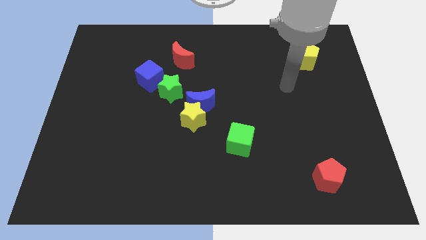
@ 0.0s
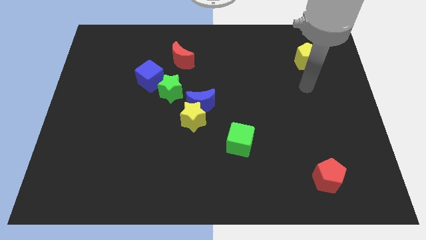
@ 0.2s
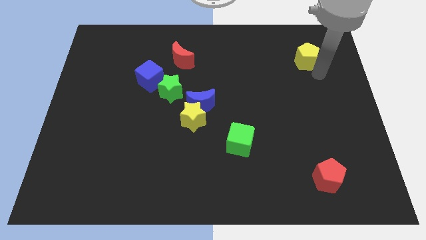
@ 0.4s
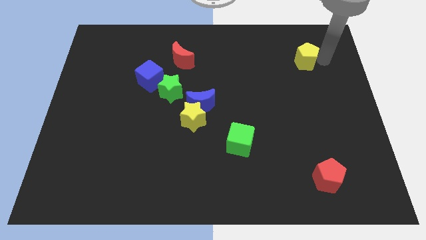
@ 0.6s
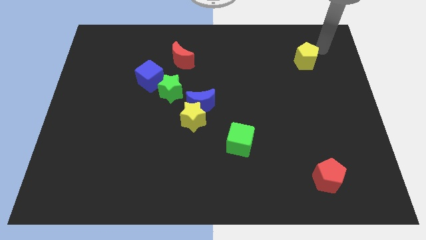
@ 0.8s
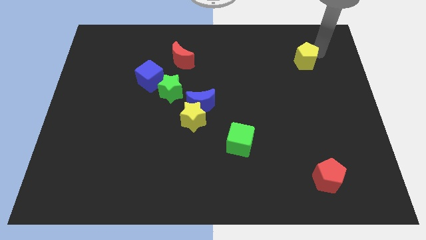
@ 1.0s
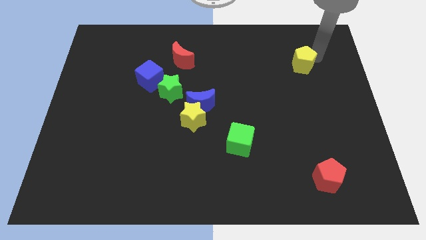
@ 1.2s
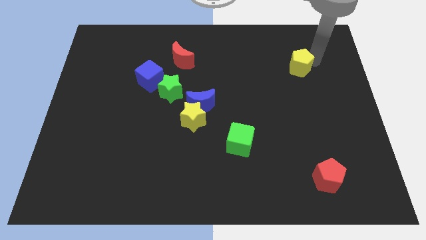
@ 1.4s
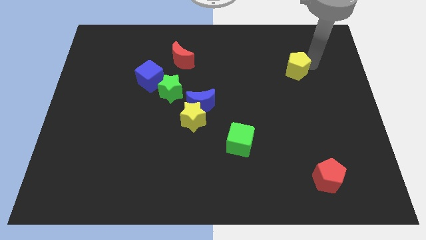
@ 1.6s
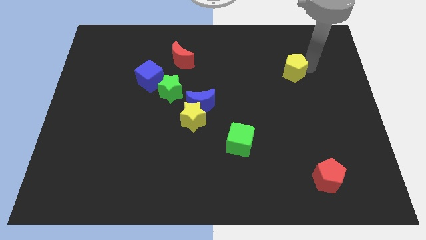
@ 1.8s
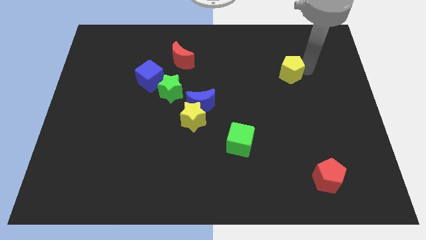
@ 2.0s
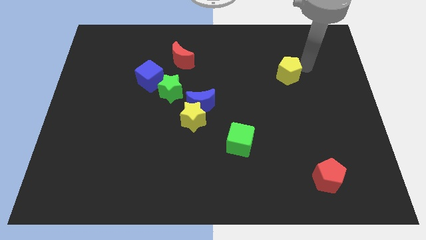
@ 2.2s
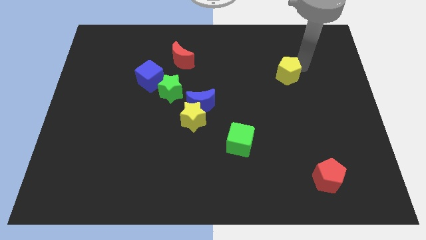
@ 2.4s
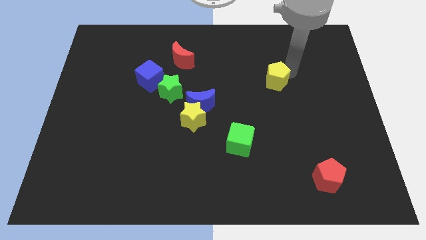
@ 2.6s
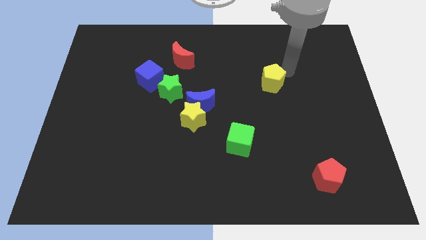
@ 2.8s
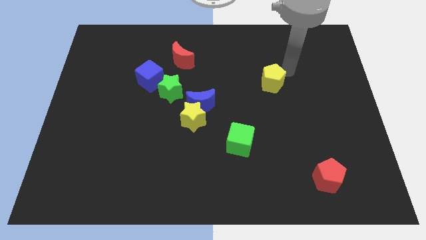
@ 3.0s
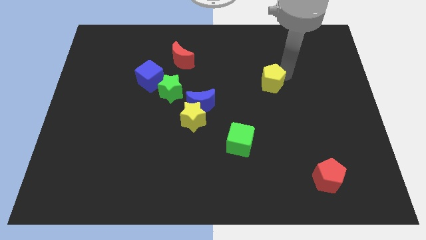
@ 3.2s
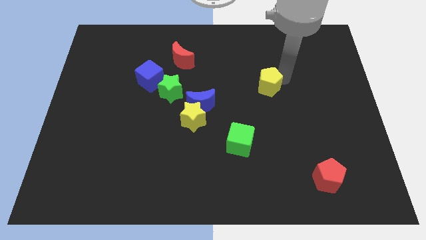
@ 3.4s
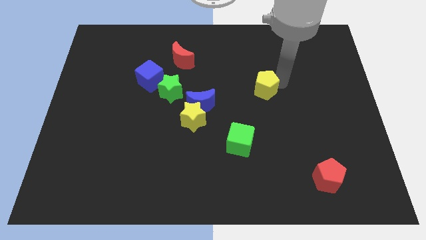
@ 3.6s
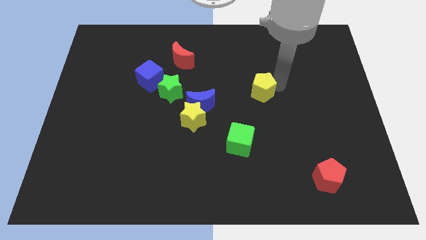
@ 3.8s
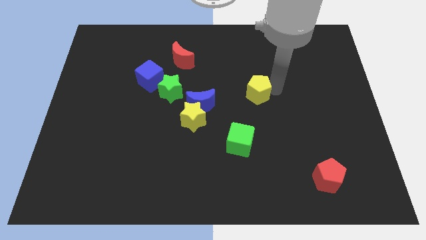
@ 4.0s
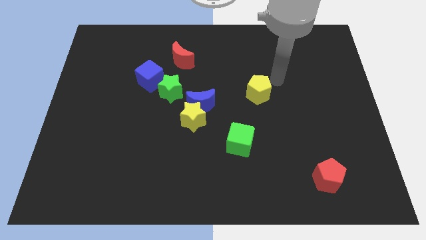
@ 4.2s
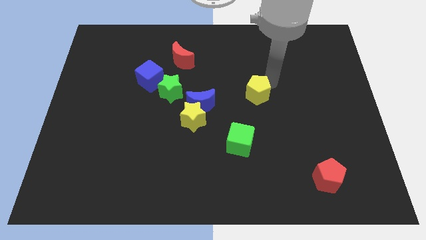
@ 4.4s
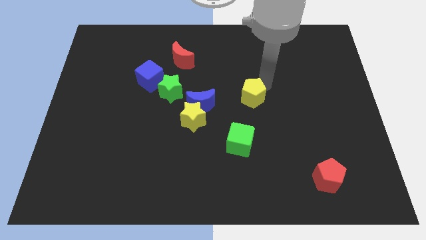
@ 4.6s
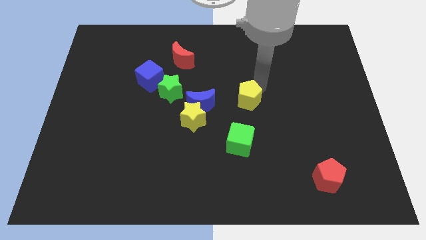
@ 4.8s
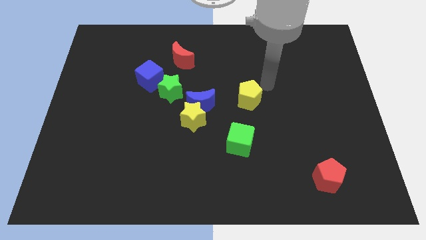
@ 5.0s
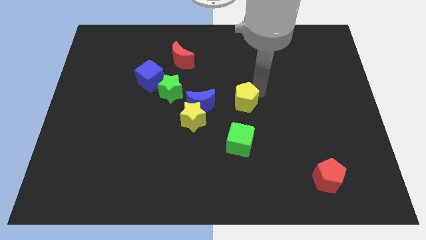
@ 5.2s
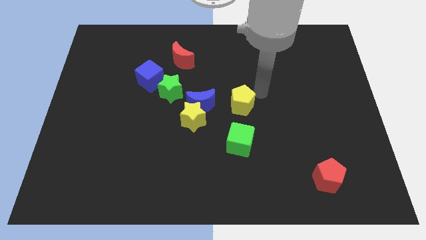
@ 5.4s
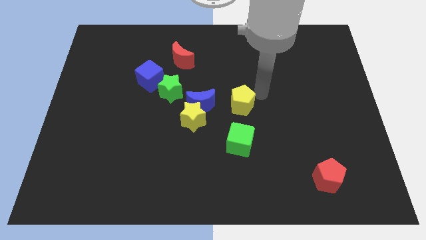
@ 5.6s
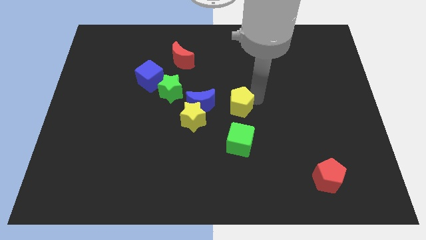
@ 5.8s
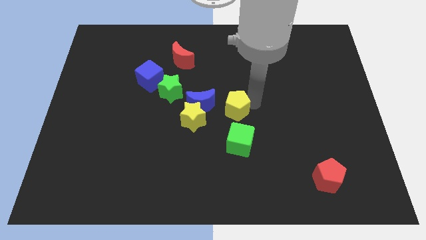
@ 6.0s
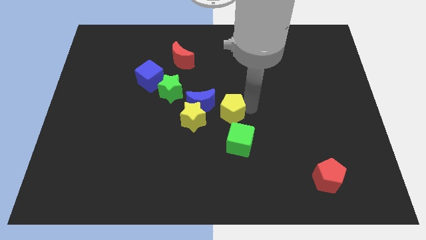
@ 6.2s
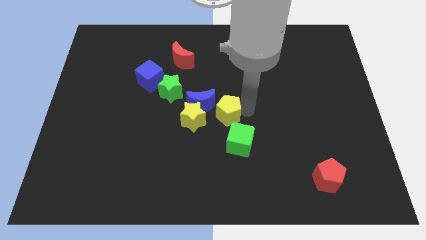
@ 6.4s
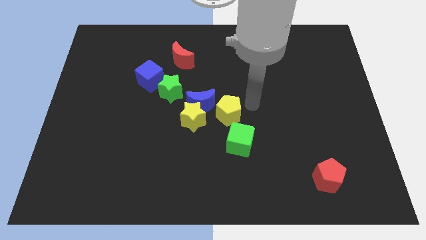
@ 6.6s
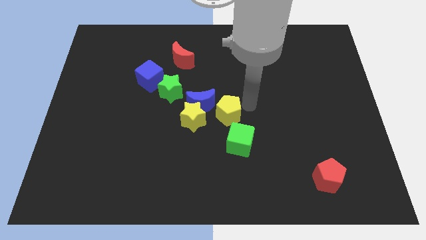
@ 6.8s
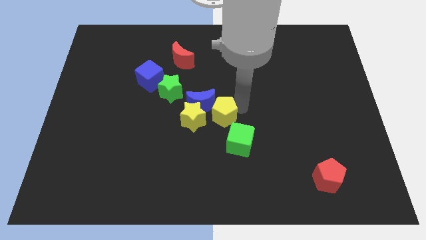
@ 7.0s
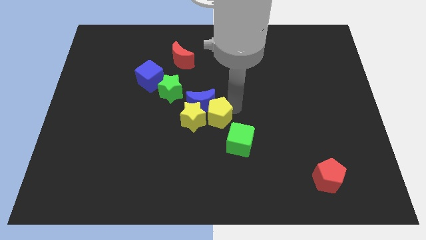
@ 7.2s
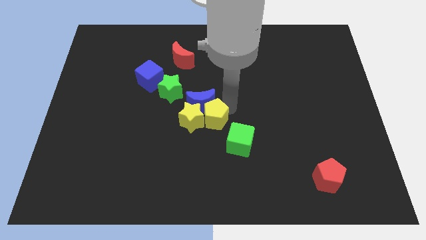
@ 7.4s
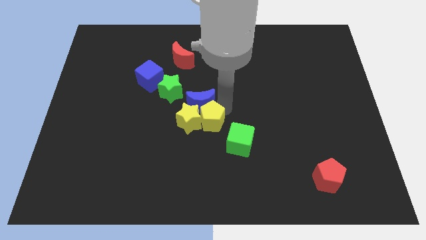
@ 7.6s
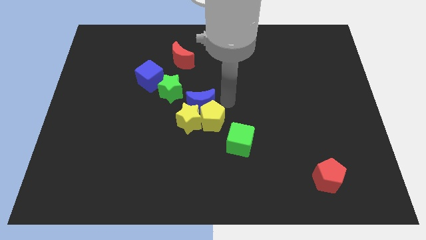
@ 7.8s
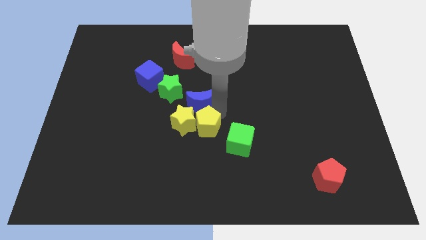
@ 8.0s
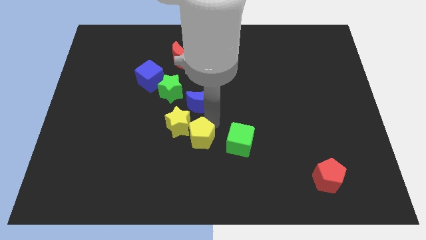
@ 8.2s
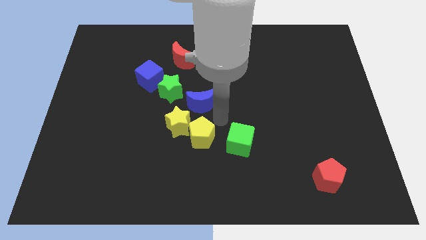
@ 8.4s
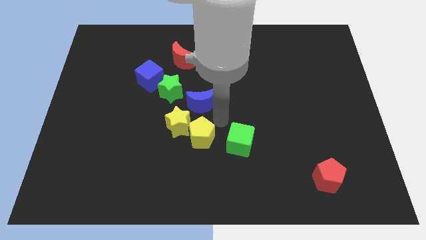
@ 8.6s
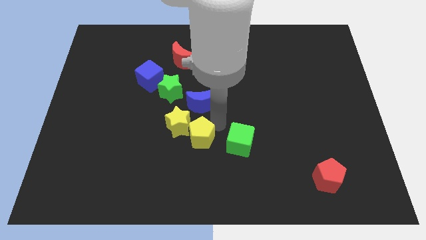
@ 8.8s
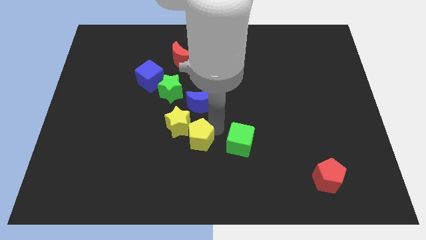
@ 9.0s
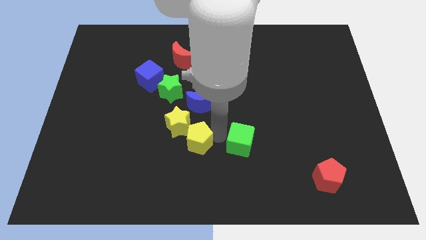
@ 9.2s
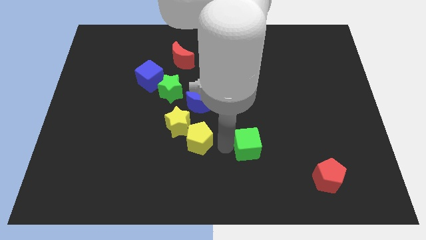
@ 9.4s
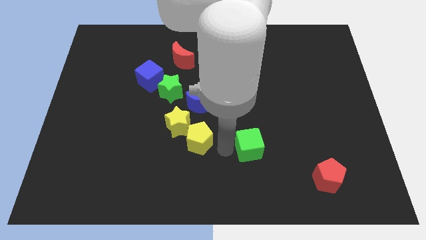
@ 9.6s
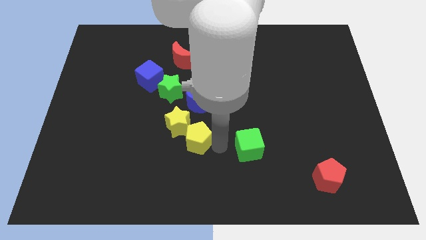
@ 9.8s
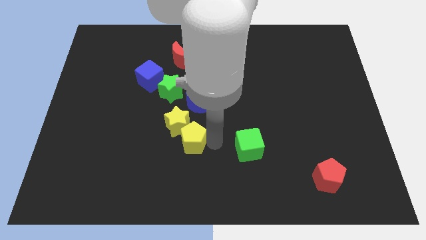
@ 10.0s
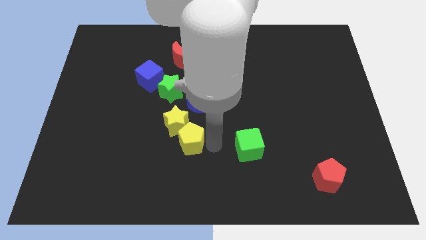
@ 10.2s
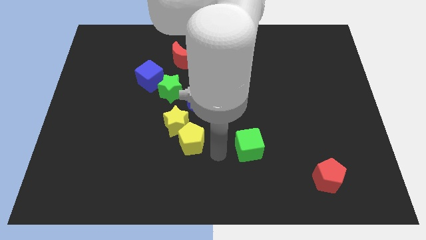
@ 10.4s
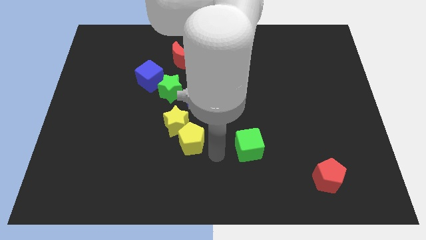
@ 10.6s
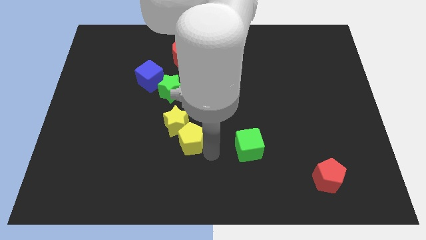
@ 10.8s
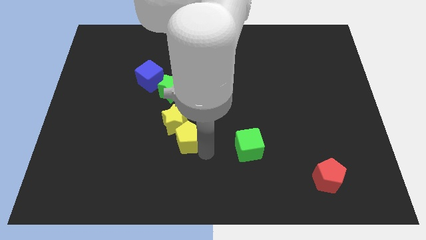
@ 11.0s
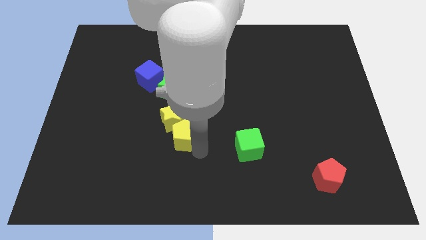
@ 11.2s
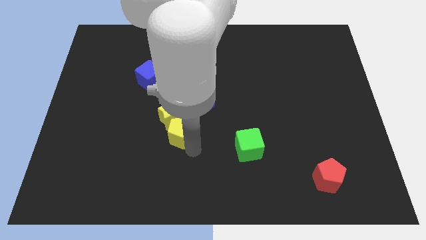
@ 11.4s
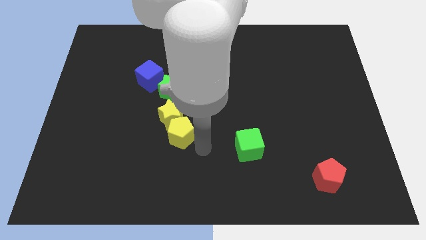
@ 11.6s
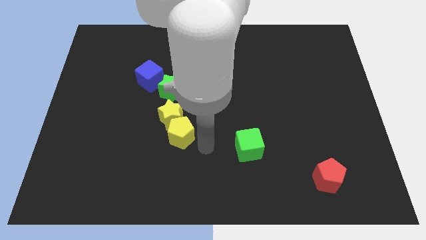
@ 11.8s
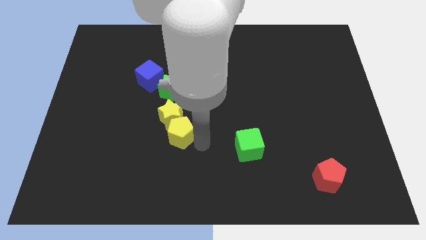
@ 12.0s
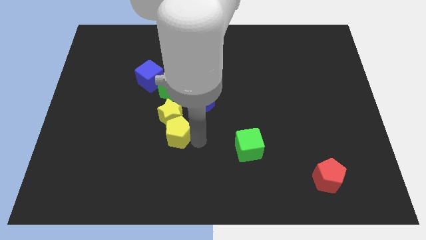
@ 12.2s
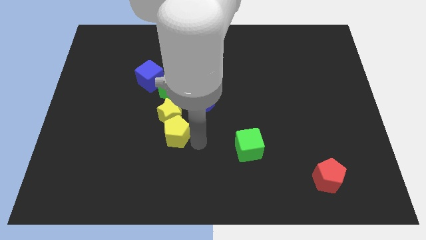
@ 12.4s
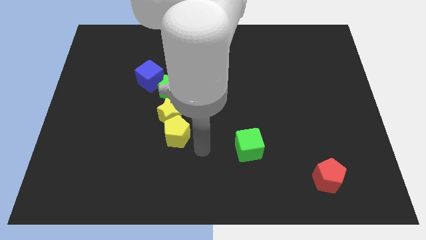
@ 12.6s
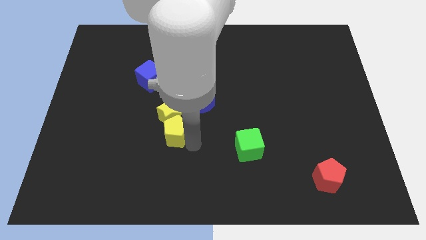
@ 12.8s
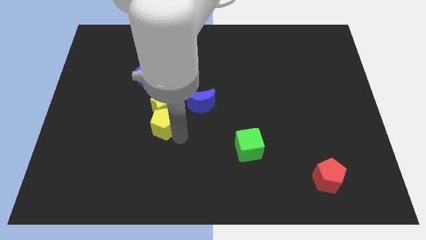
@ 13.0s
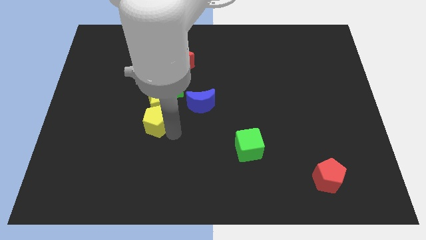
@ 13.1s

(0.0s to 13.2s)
move the yellow pentagon to the bottom side of the blue cube

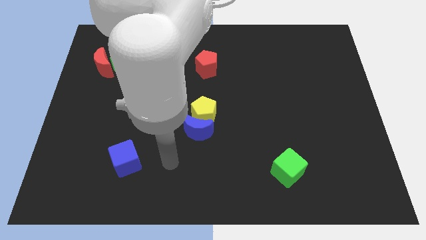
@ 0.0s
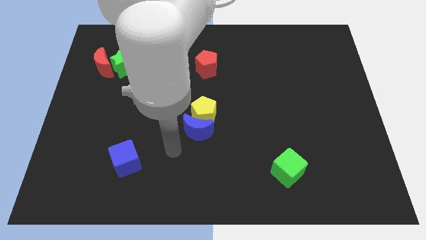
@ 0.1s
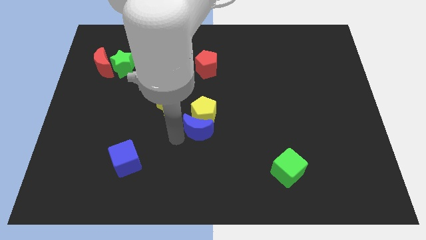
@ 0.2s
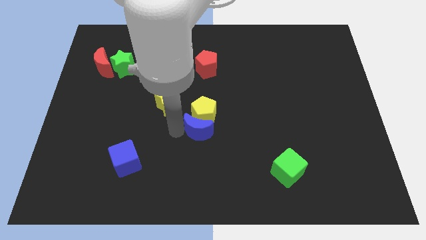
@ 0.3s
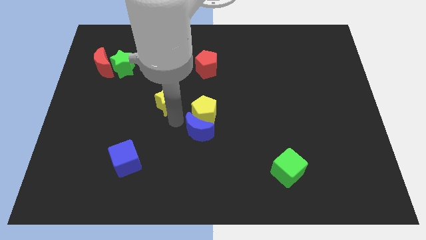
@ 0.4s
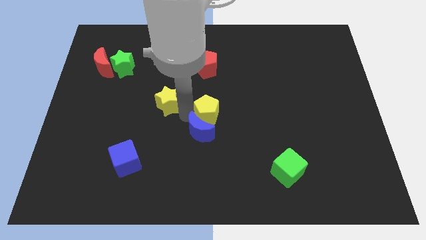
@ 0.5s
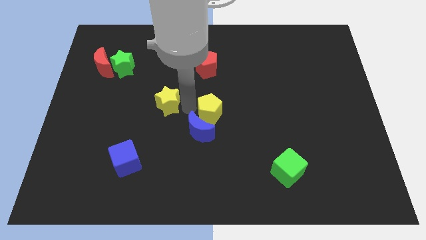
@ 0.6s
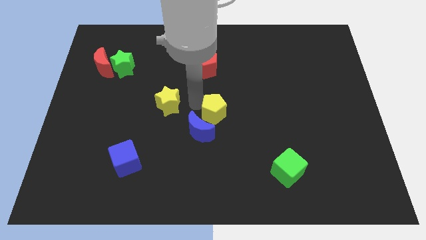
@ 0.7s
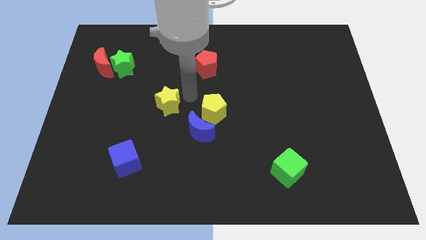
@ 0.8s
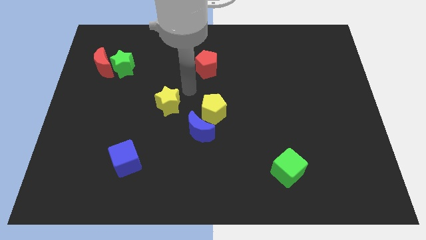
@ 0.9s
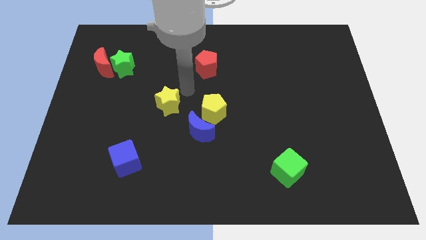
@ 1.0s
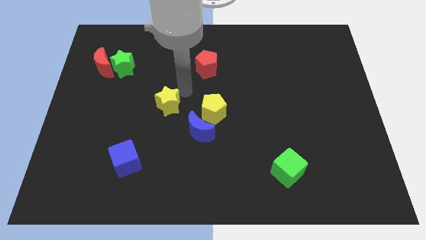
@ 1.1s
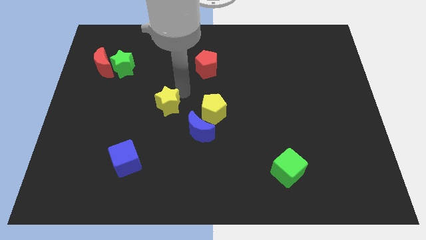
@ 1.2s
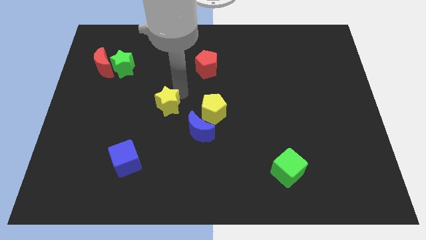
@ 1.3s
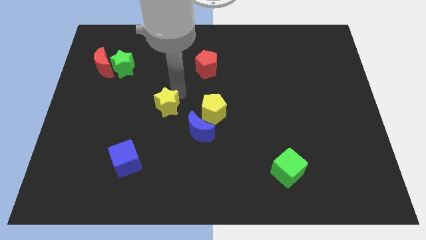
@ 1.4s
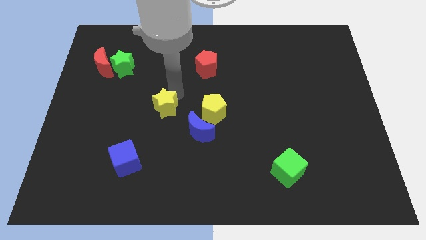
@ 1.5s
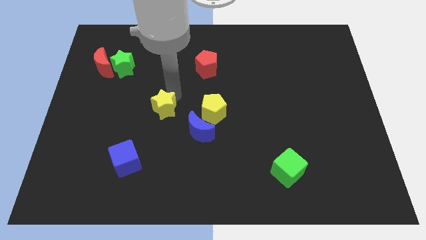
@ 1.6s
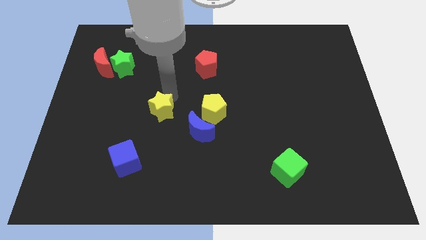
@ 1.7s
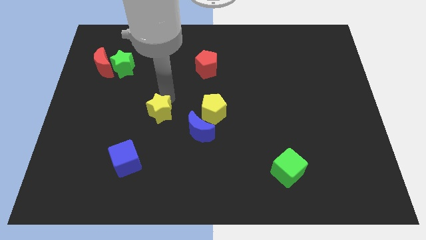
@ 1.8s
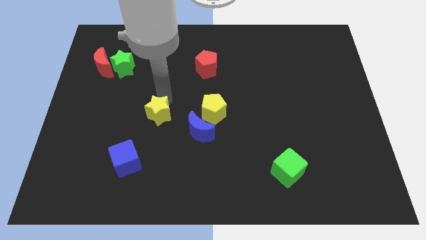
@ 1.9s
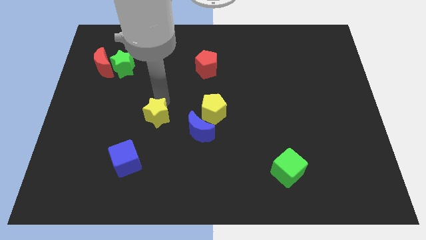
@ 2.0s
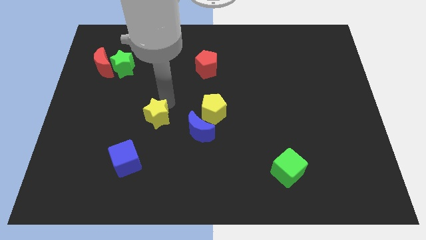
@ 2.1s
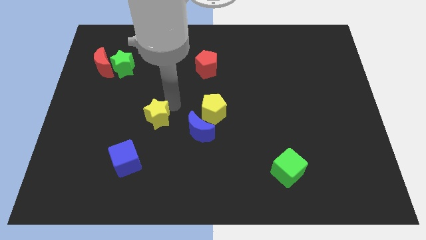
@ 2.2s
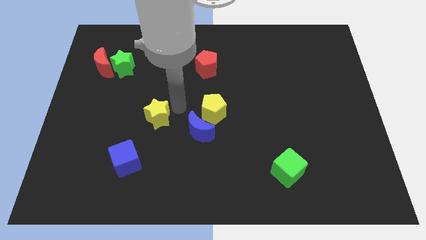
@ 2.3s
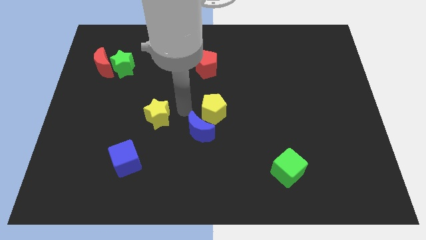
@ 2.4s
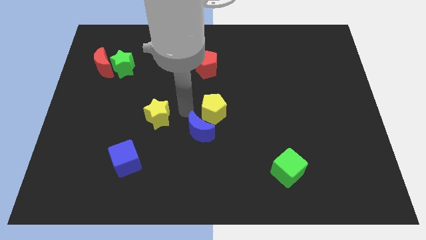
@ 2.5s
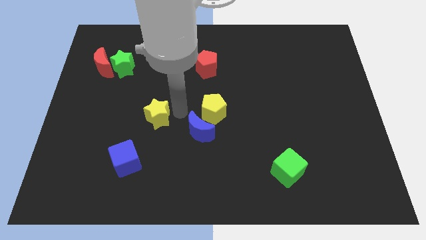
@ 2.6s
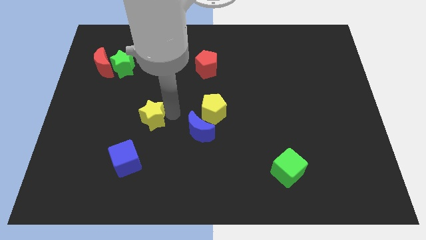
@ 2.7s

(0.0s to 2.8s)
move the yellow star to the top of the blue cube
